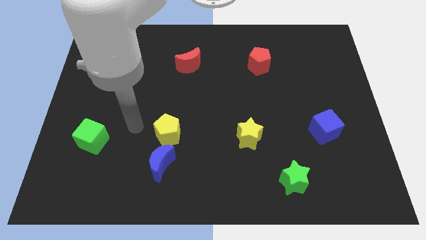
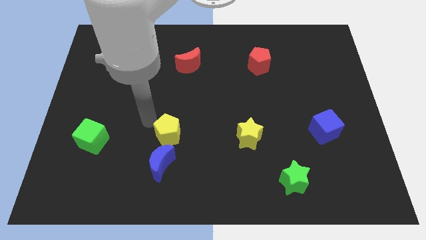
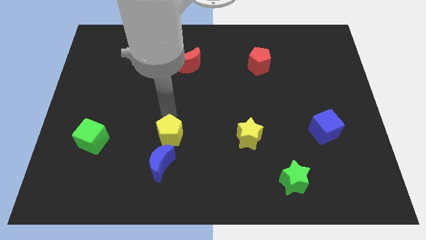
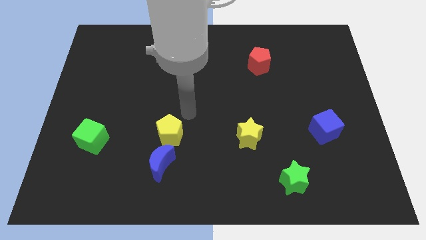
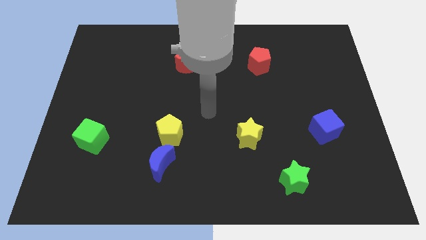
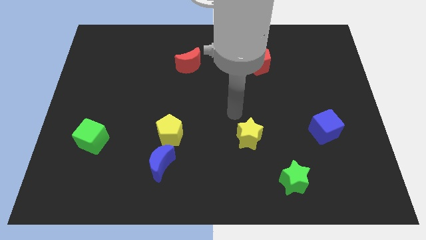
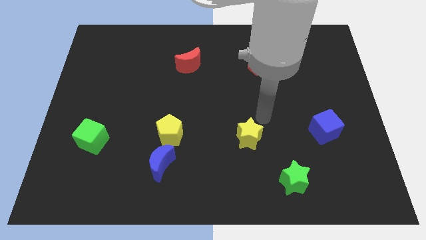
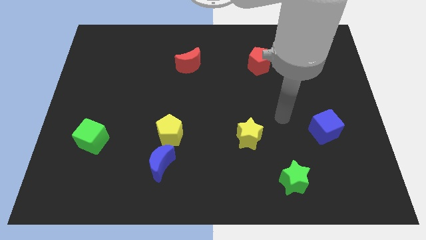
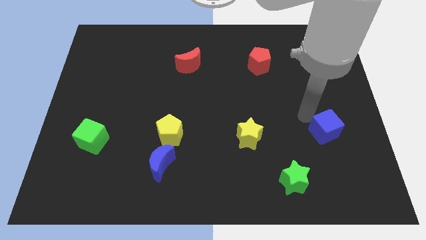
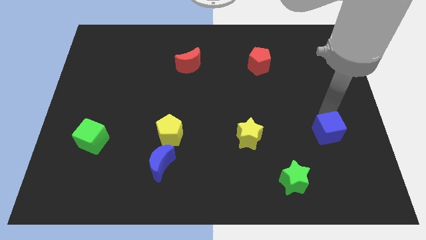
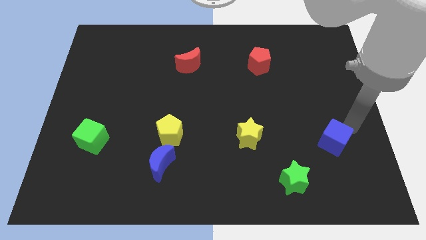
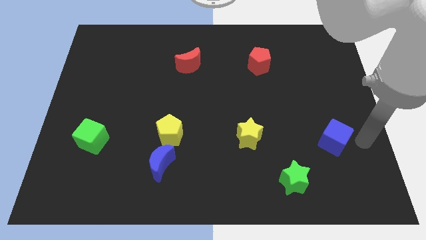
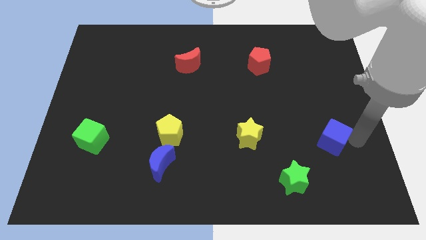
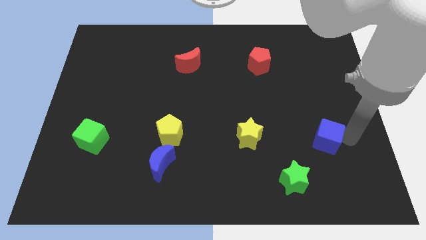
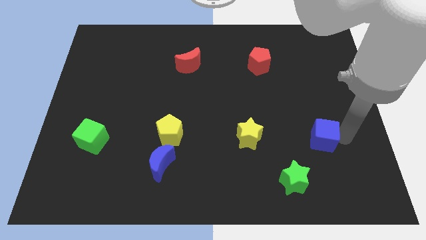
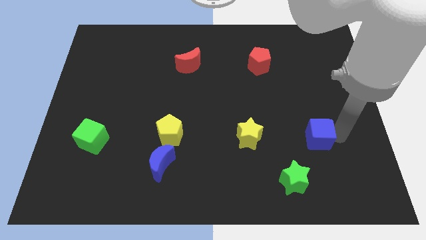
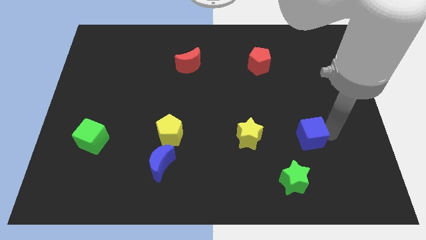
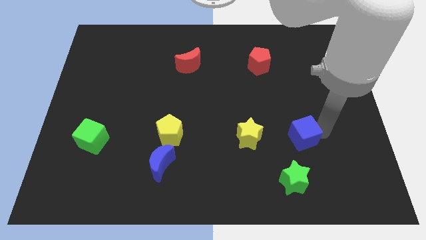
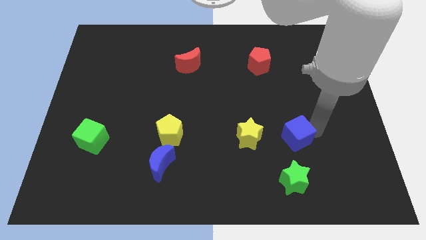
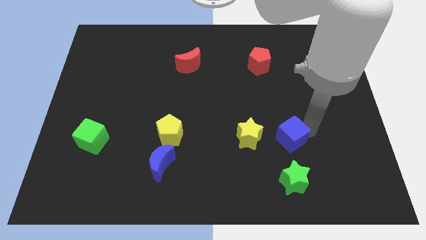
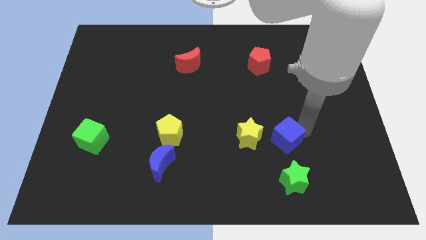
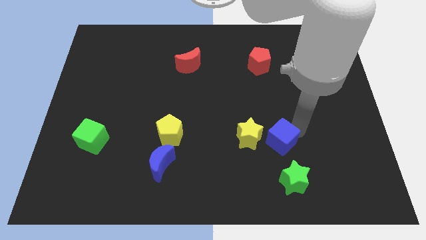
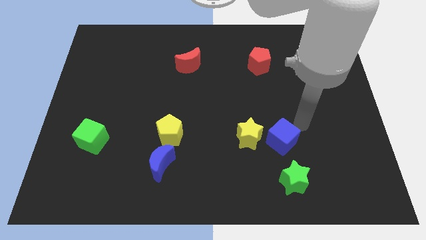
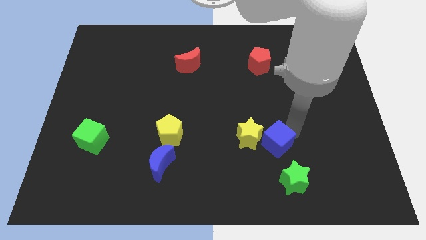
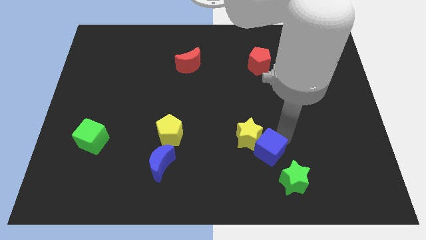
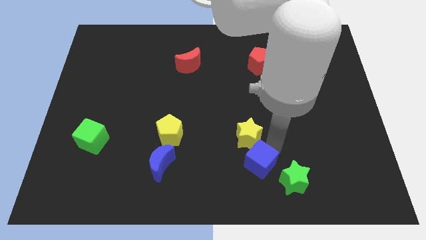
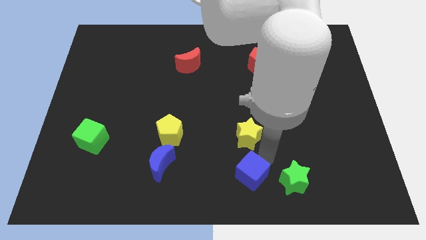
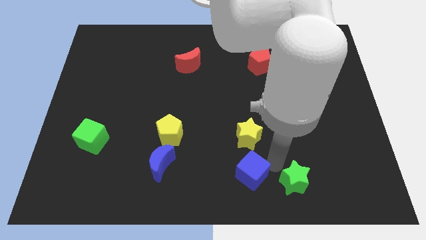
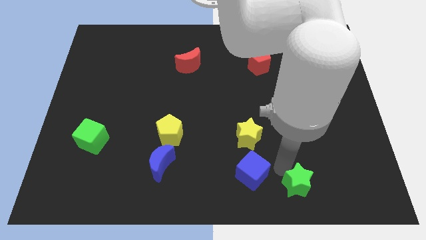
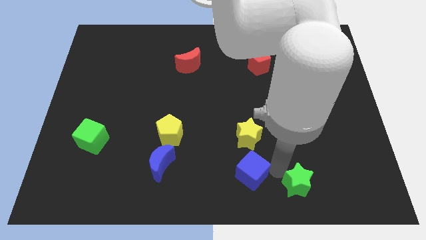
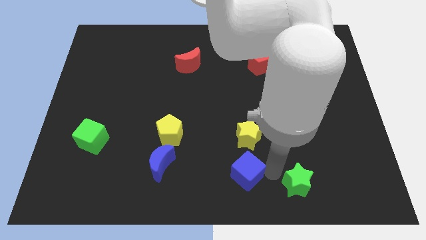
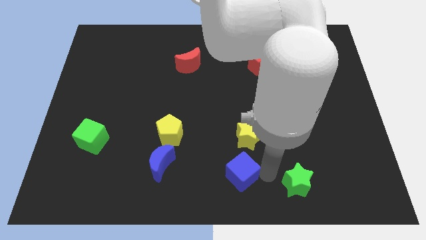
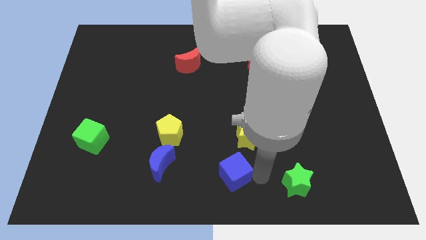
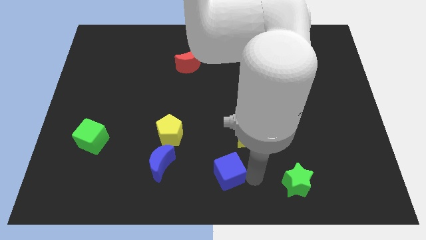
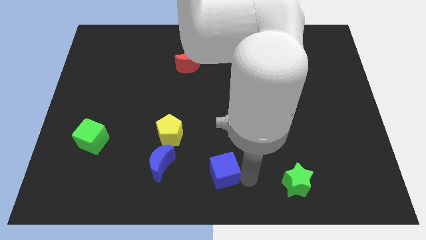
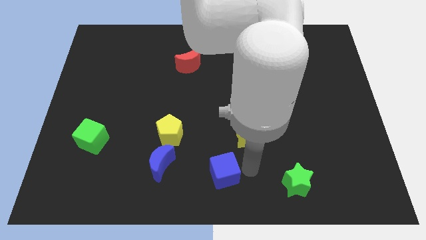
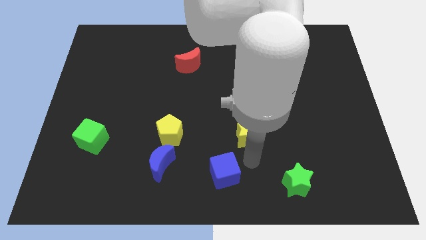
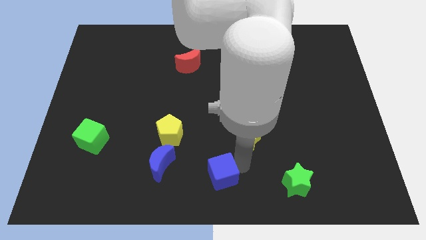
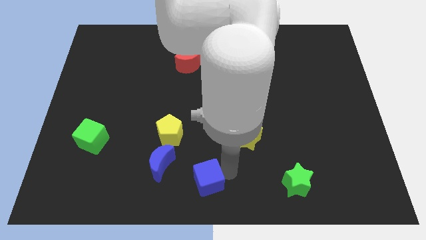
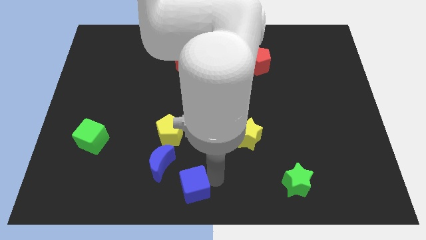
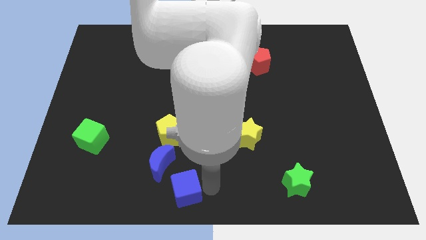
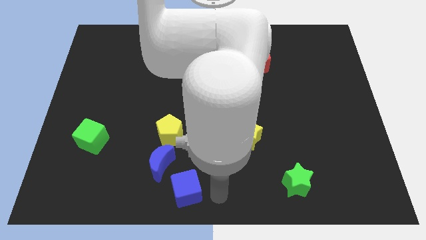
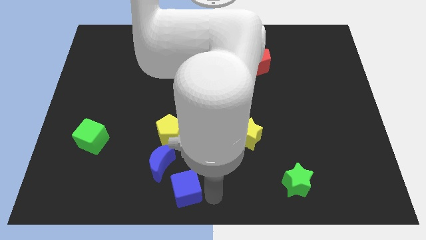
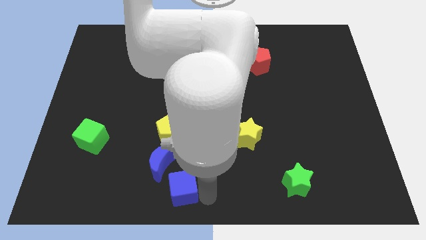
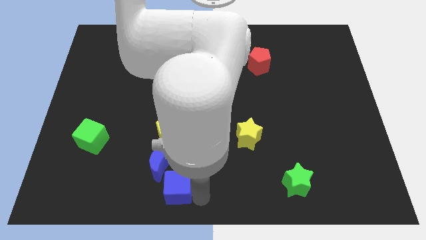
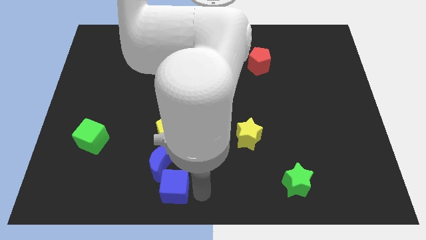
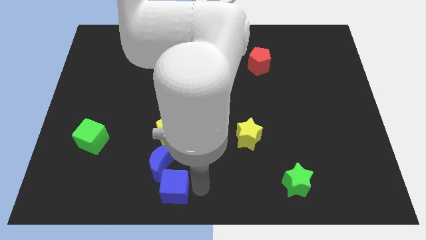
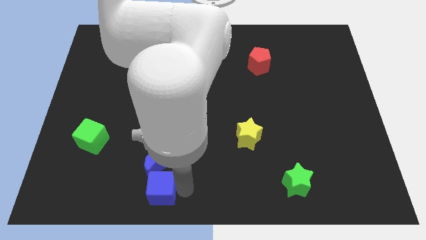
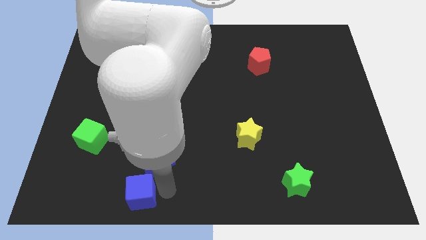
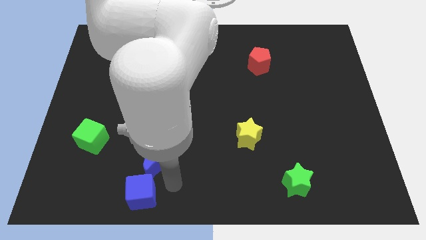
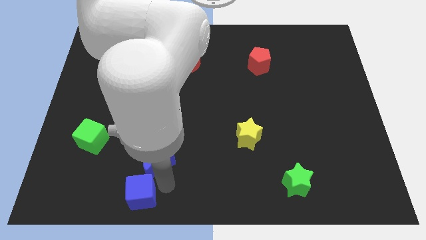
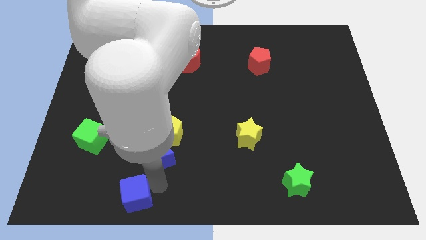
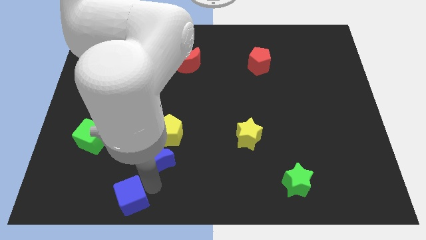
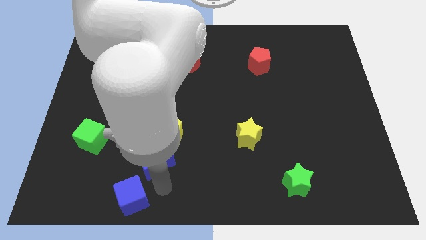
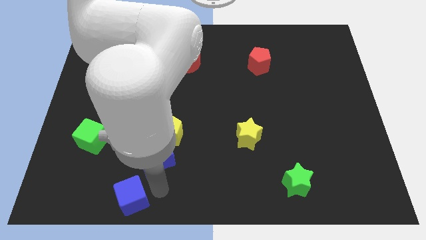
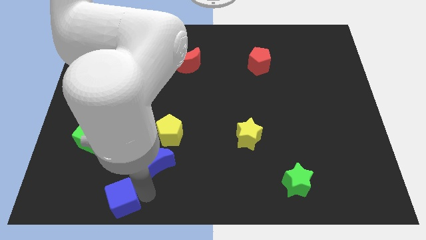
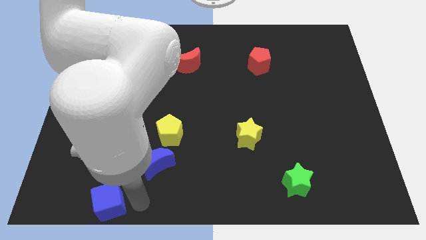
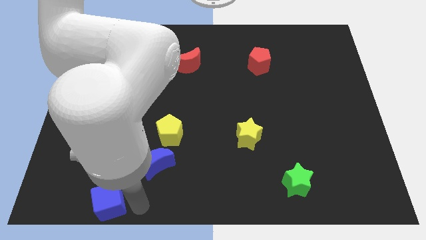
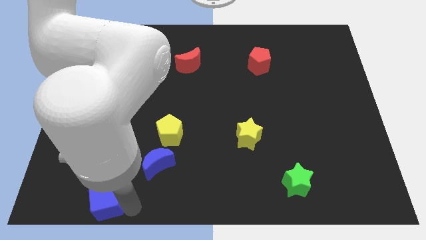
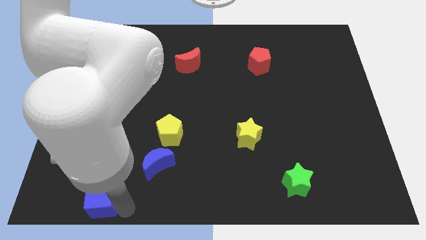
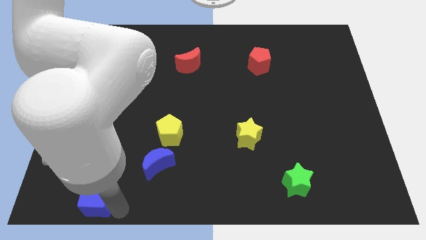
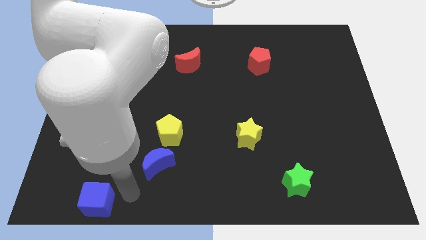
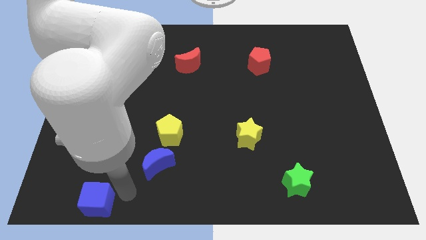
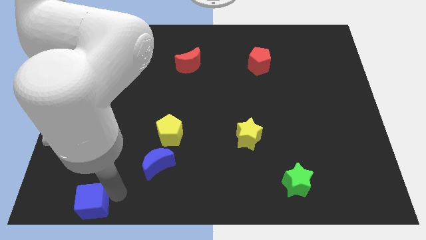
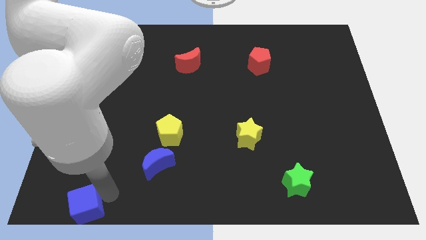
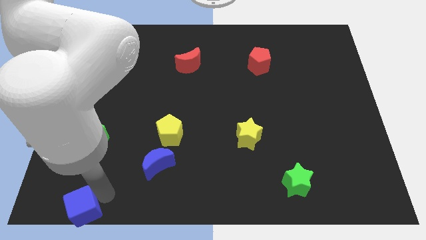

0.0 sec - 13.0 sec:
move the blue cube to the bottom left of the board
